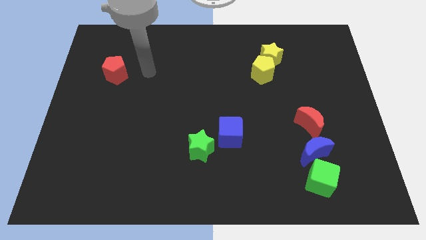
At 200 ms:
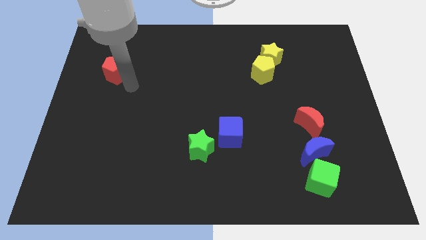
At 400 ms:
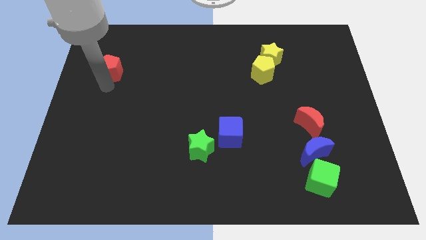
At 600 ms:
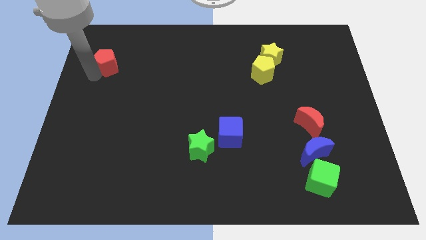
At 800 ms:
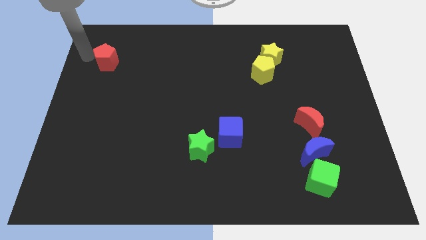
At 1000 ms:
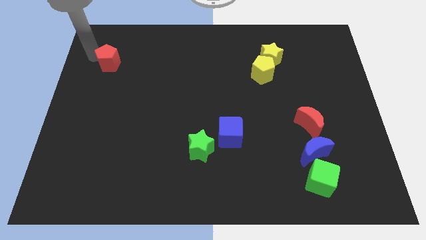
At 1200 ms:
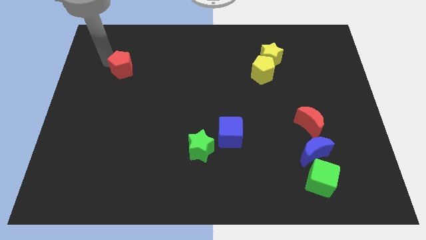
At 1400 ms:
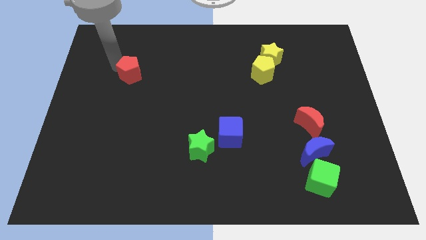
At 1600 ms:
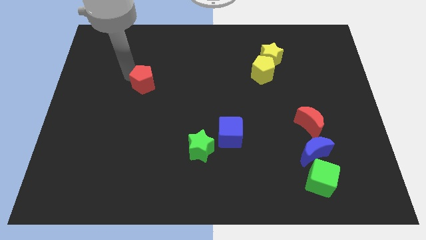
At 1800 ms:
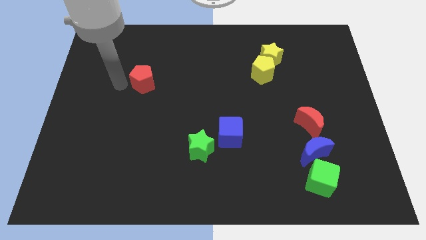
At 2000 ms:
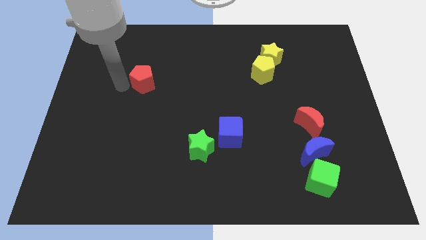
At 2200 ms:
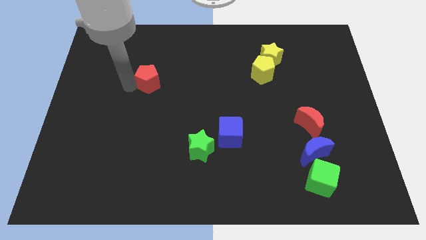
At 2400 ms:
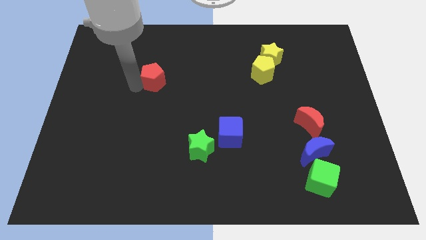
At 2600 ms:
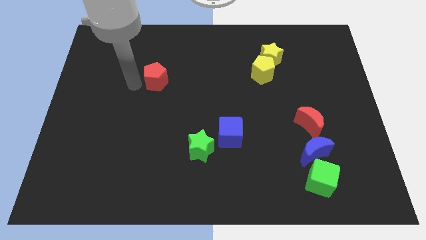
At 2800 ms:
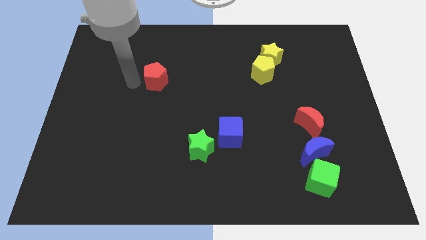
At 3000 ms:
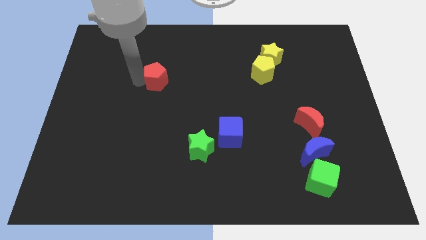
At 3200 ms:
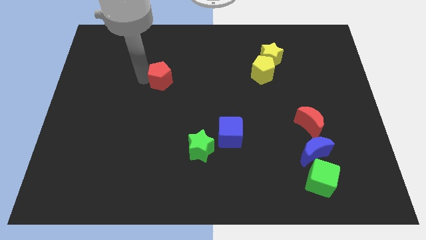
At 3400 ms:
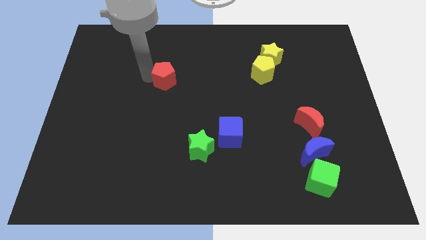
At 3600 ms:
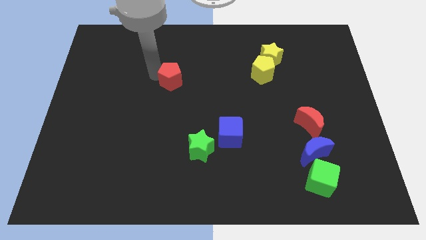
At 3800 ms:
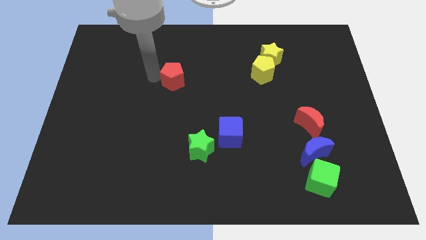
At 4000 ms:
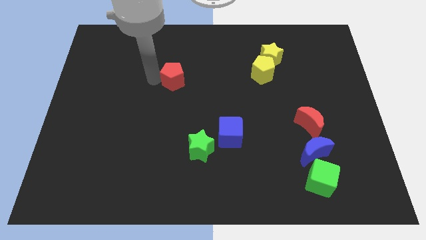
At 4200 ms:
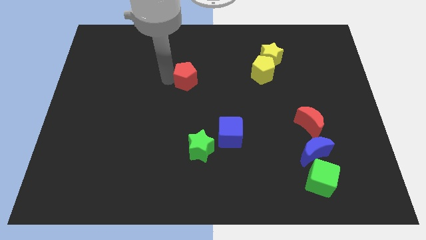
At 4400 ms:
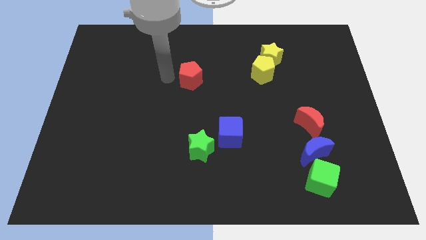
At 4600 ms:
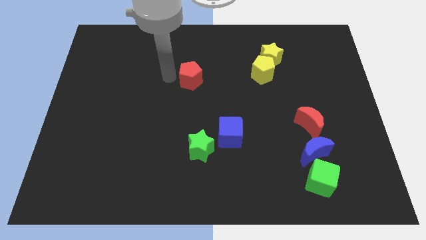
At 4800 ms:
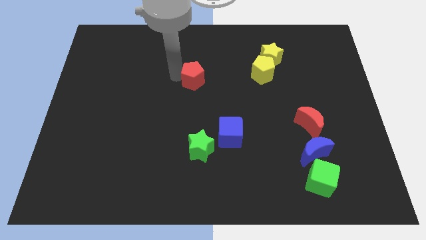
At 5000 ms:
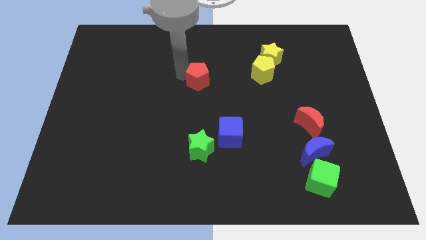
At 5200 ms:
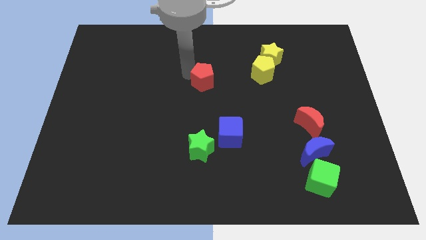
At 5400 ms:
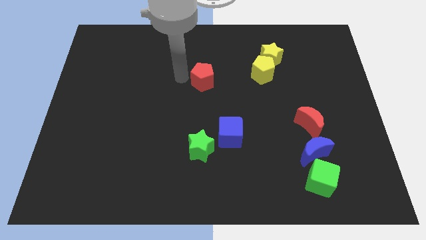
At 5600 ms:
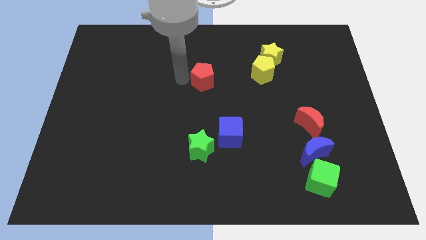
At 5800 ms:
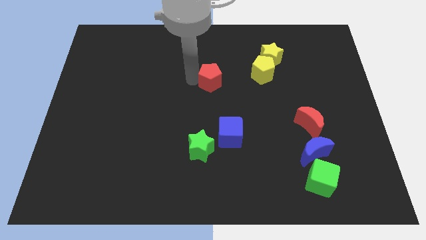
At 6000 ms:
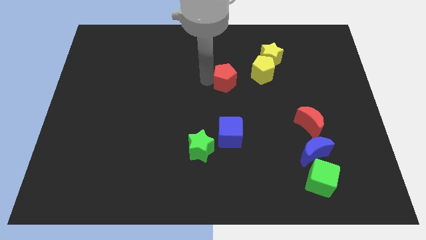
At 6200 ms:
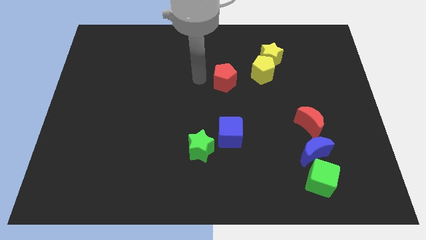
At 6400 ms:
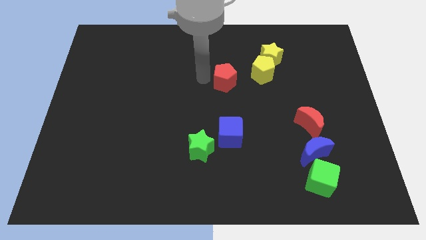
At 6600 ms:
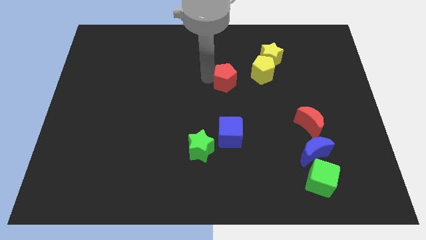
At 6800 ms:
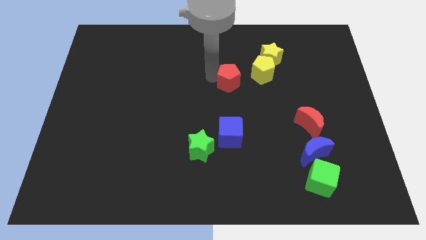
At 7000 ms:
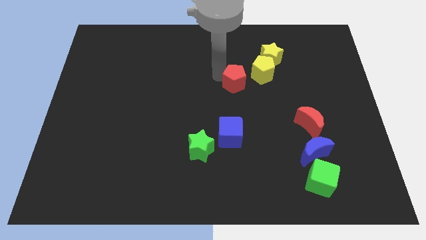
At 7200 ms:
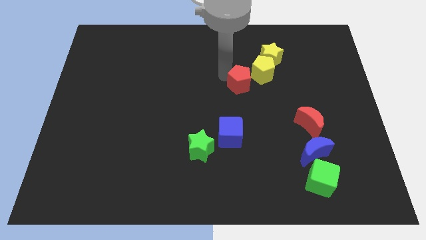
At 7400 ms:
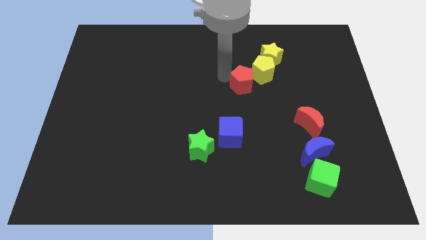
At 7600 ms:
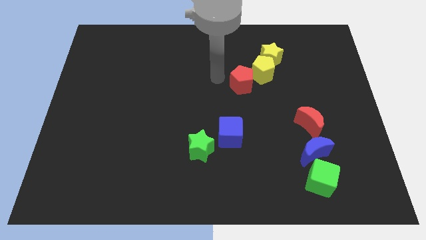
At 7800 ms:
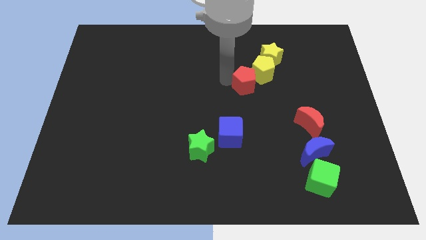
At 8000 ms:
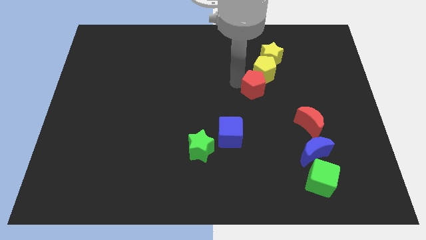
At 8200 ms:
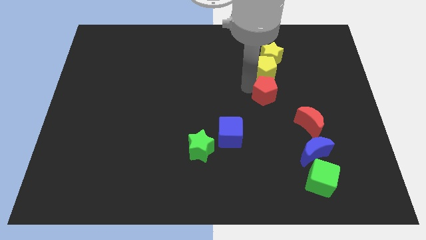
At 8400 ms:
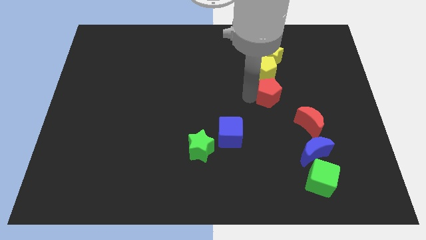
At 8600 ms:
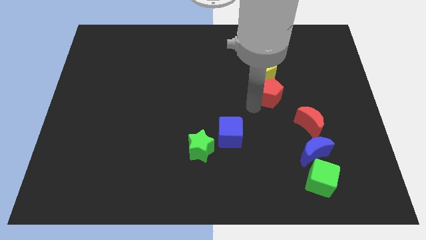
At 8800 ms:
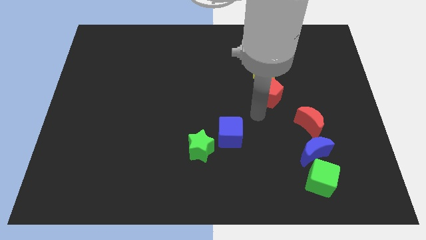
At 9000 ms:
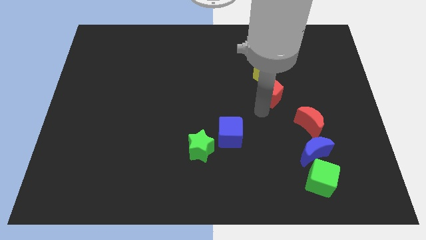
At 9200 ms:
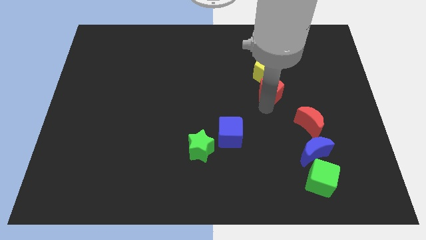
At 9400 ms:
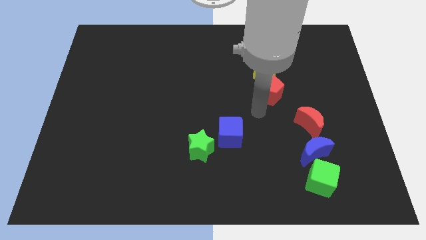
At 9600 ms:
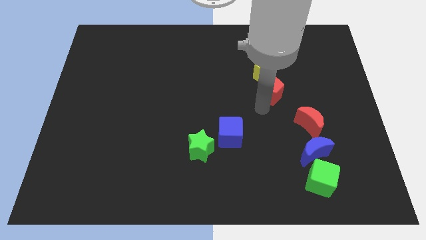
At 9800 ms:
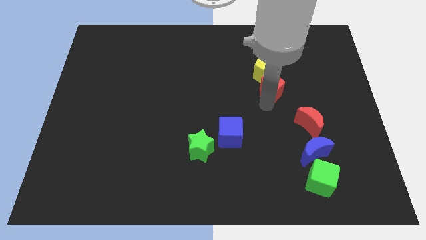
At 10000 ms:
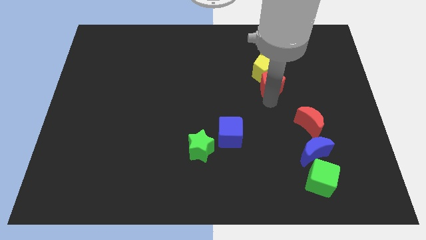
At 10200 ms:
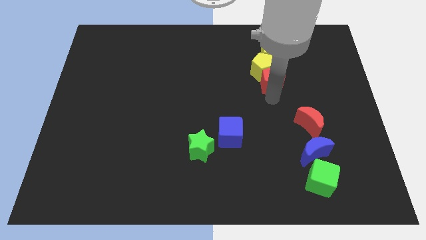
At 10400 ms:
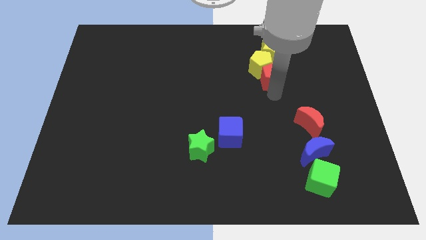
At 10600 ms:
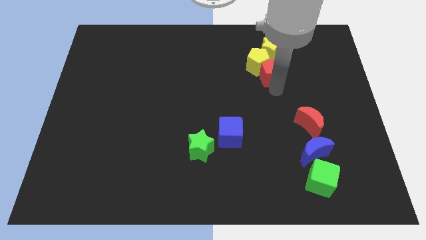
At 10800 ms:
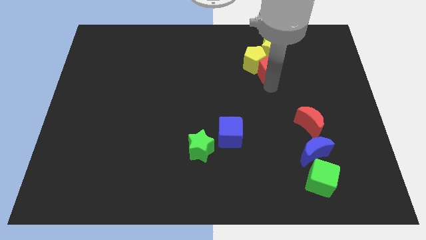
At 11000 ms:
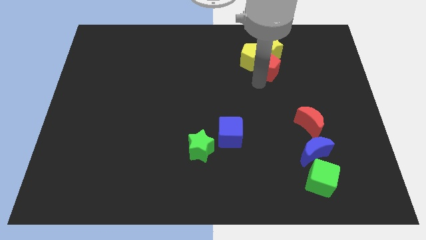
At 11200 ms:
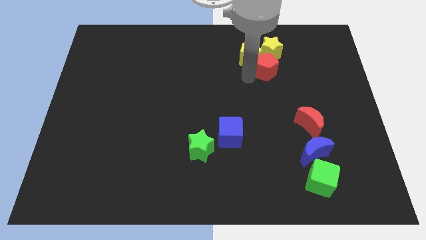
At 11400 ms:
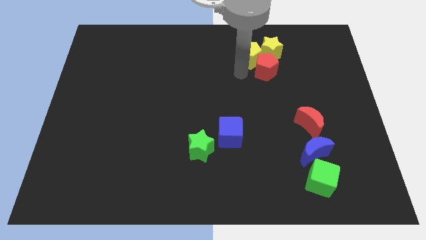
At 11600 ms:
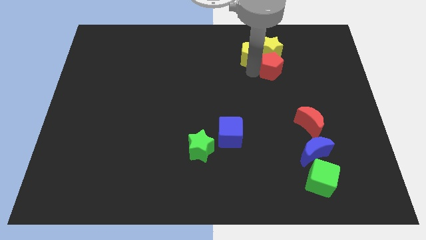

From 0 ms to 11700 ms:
put the red pentagon to the bottom right side of the yellow star

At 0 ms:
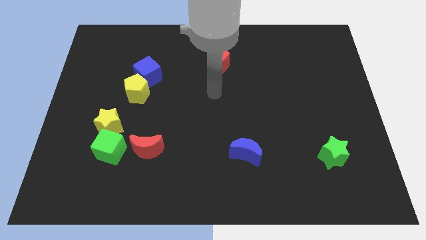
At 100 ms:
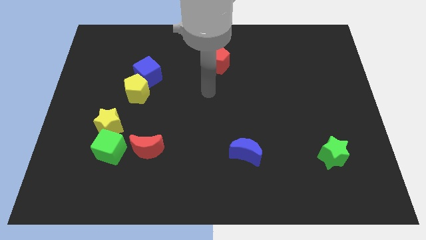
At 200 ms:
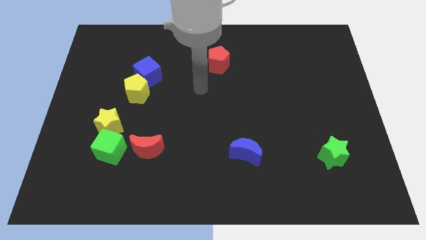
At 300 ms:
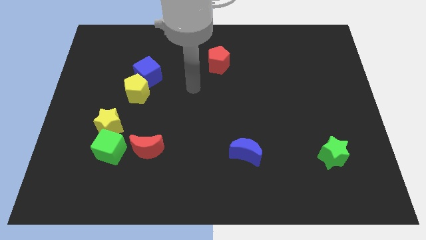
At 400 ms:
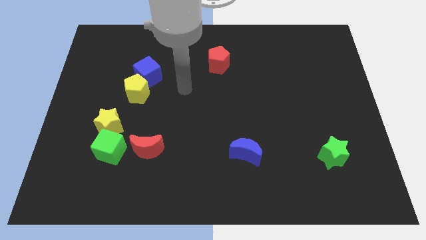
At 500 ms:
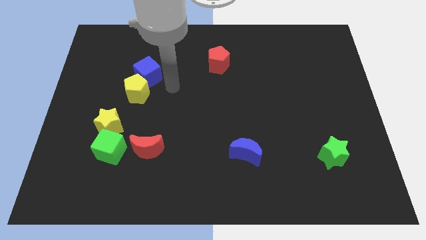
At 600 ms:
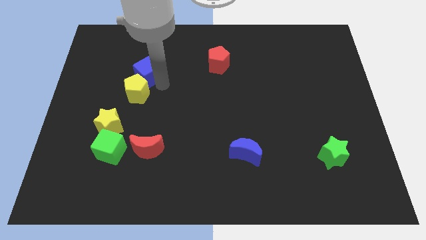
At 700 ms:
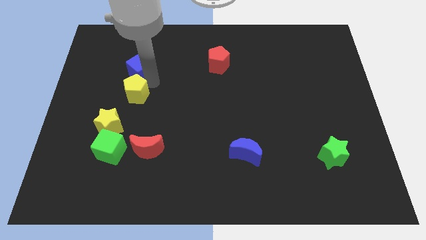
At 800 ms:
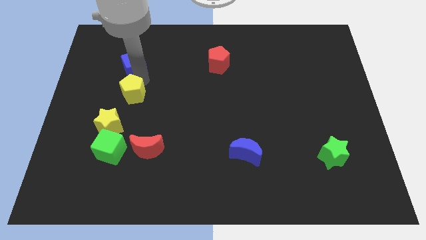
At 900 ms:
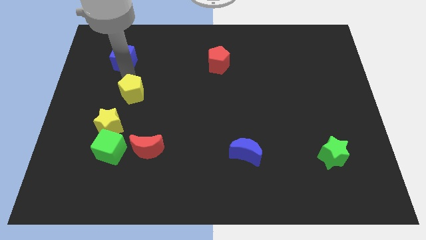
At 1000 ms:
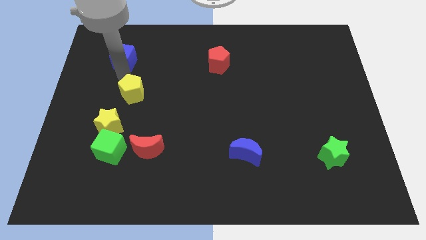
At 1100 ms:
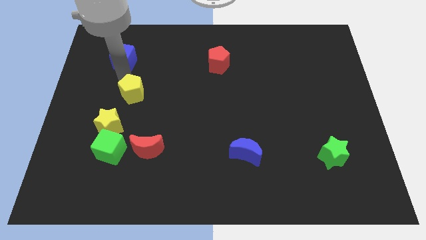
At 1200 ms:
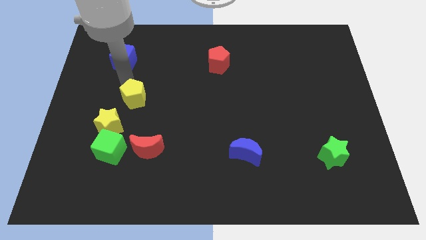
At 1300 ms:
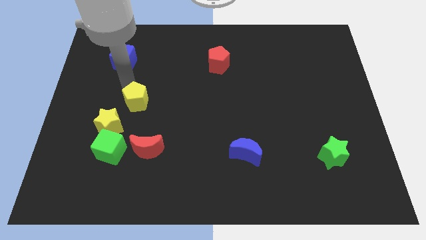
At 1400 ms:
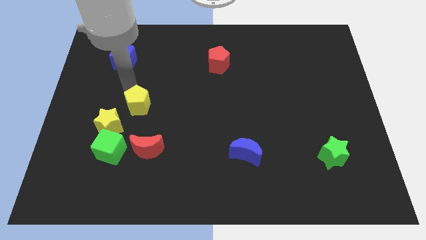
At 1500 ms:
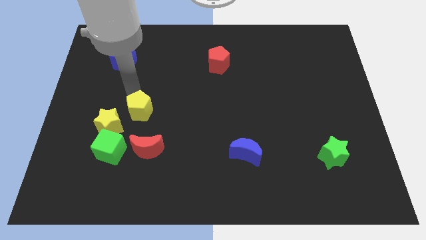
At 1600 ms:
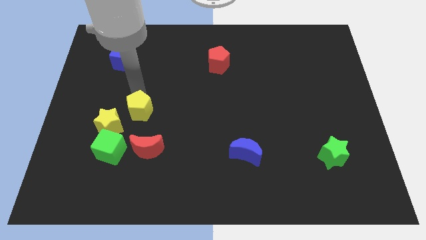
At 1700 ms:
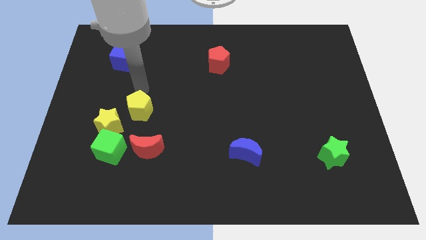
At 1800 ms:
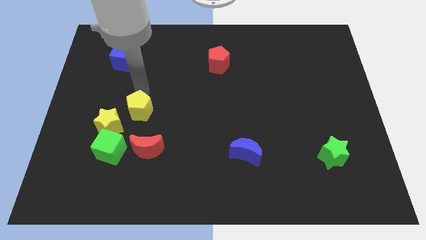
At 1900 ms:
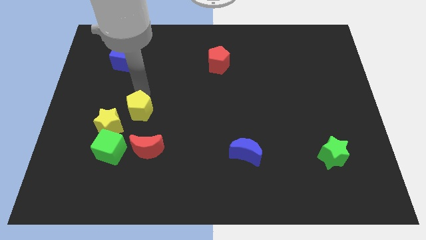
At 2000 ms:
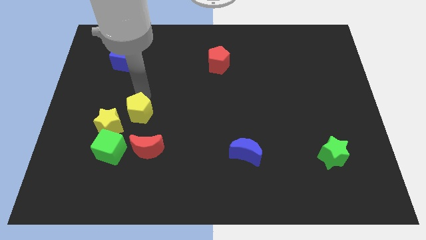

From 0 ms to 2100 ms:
move the yellow pentagon to the top right of the green cube
